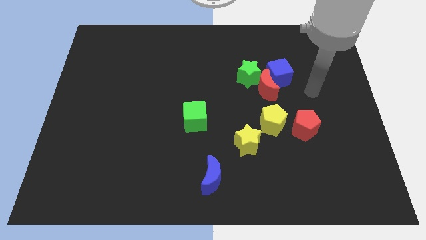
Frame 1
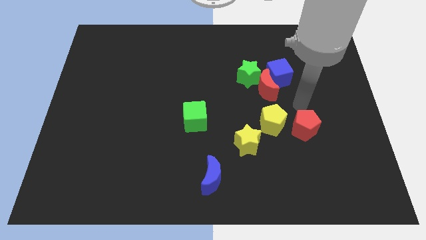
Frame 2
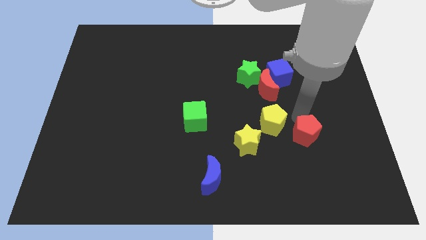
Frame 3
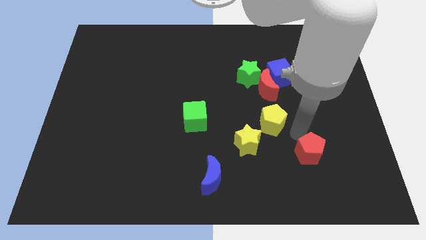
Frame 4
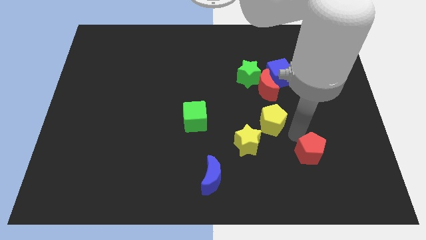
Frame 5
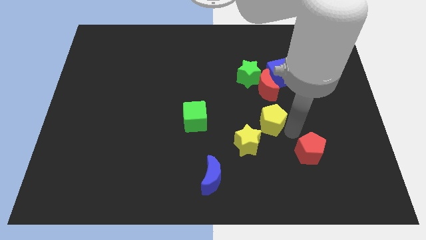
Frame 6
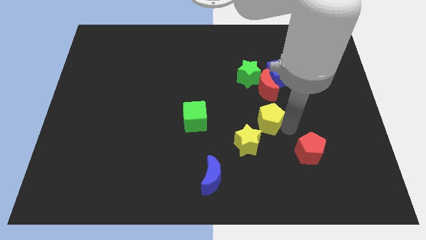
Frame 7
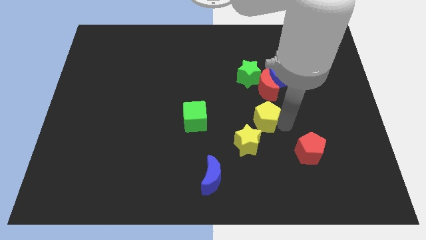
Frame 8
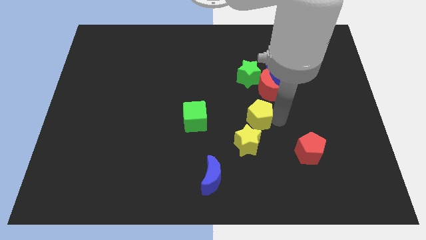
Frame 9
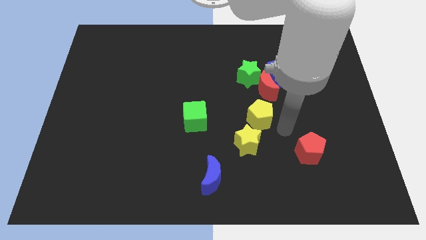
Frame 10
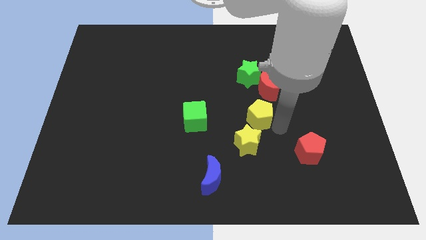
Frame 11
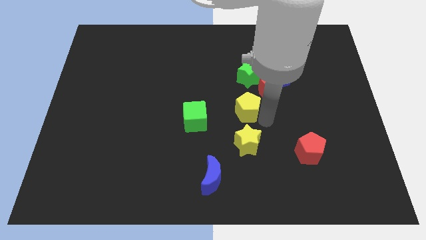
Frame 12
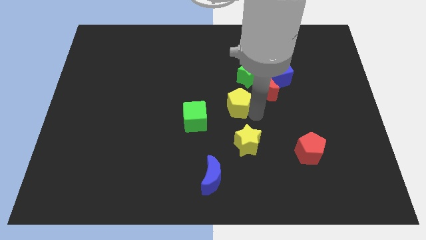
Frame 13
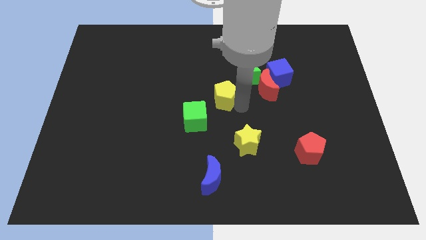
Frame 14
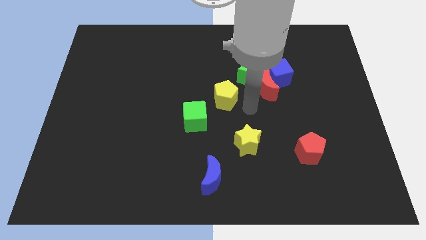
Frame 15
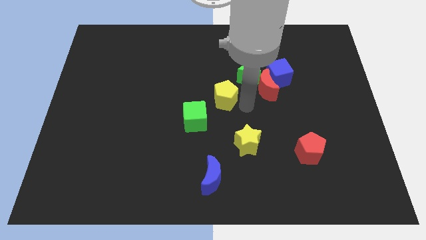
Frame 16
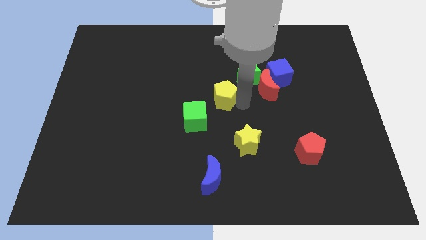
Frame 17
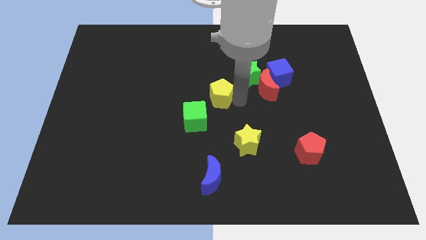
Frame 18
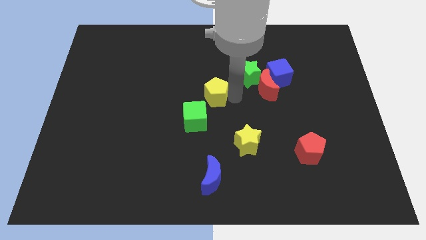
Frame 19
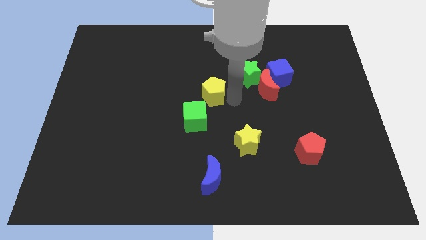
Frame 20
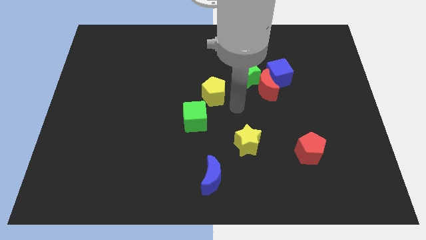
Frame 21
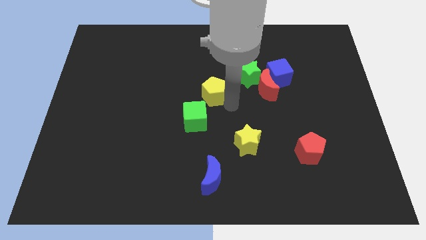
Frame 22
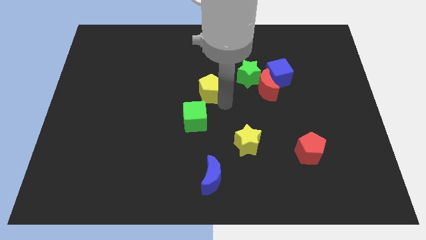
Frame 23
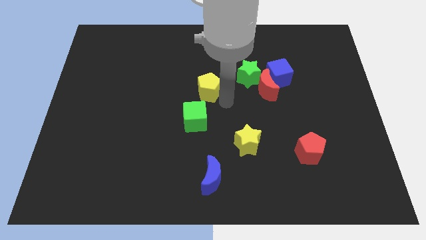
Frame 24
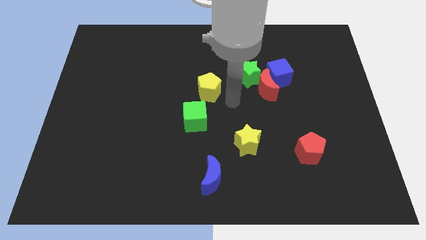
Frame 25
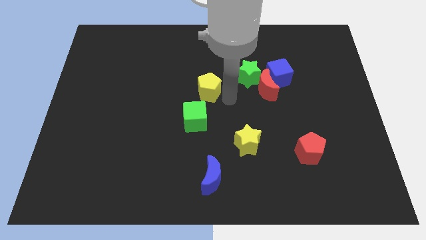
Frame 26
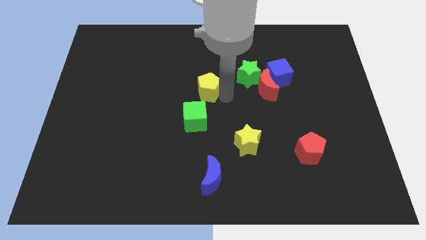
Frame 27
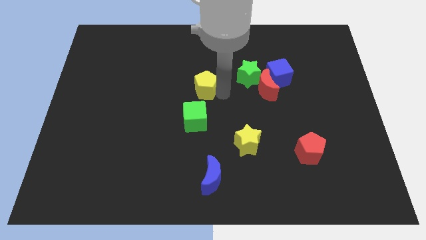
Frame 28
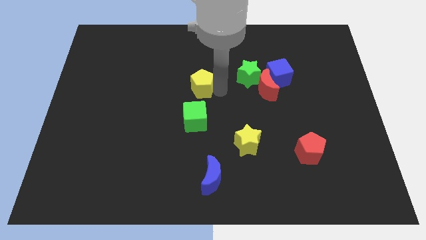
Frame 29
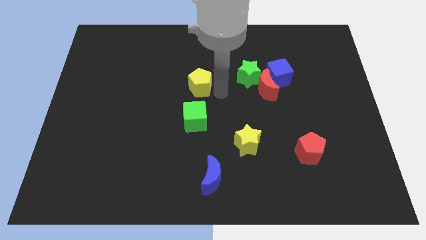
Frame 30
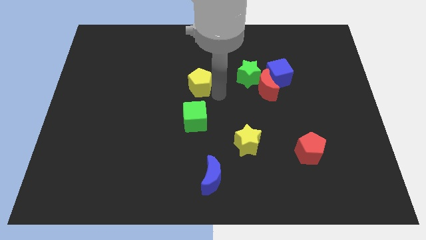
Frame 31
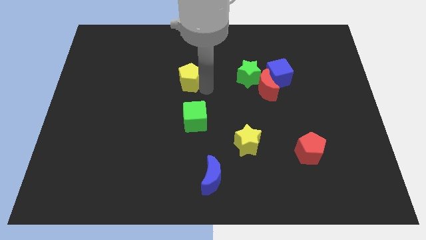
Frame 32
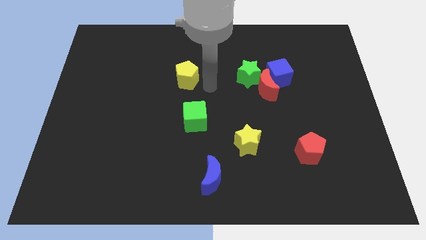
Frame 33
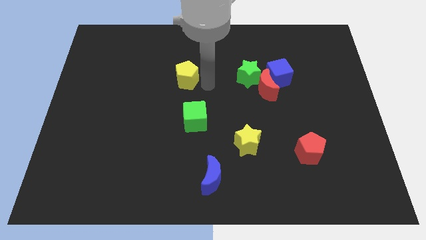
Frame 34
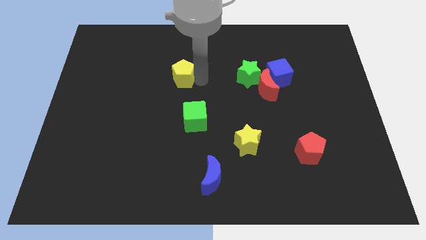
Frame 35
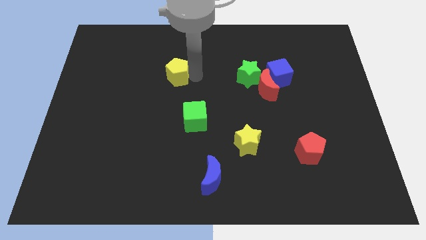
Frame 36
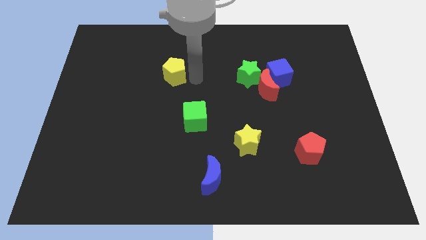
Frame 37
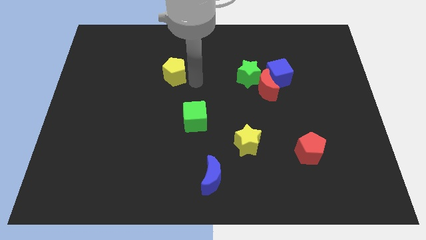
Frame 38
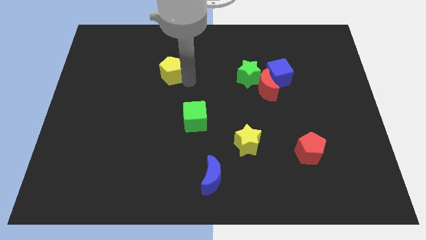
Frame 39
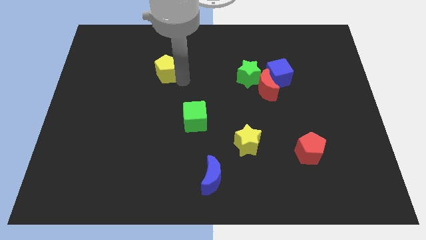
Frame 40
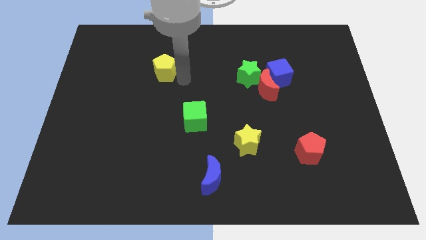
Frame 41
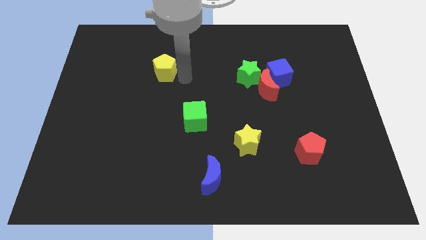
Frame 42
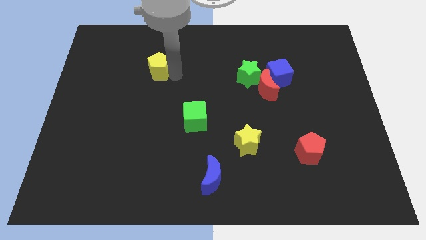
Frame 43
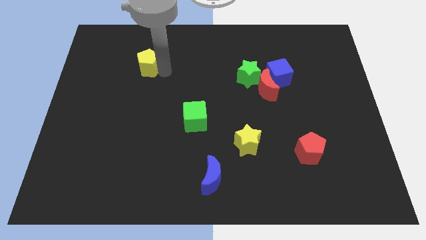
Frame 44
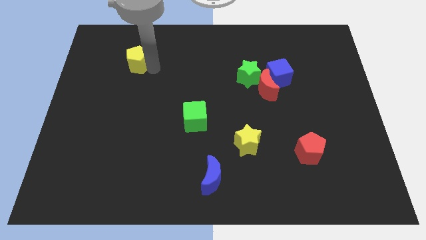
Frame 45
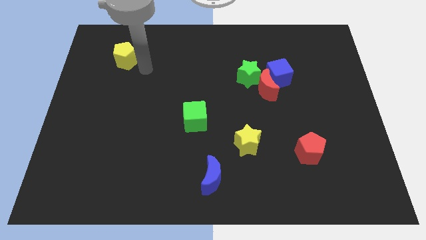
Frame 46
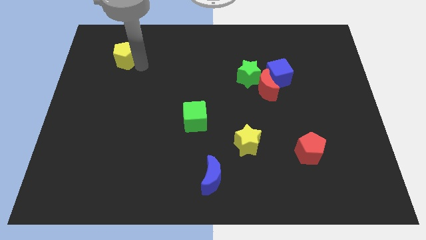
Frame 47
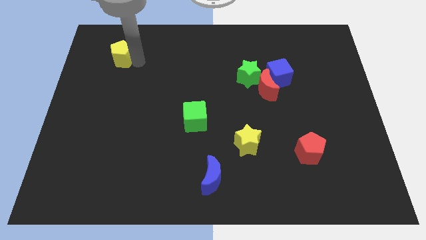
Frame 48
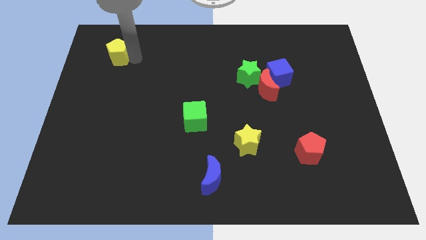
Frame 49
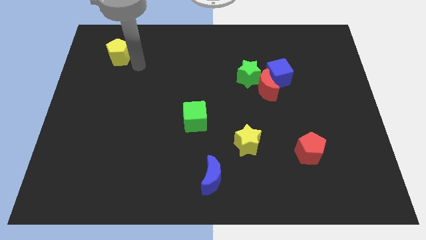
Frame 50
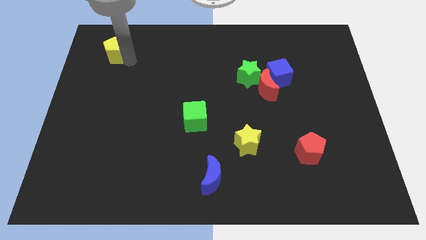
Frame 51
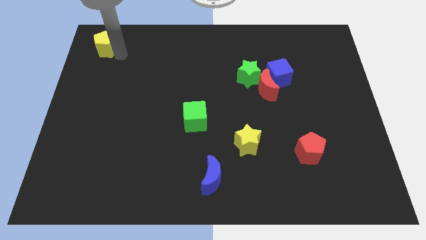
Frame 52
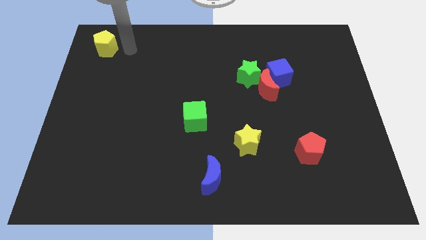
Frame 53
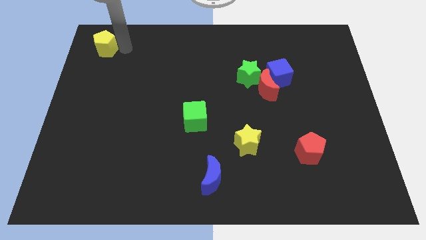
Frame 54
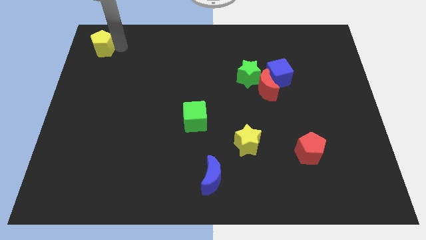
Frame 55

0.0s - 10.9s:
put the yellow pentagon to the top left
